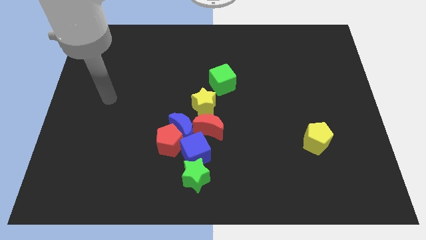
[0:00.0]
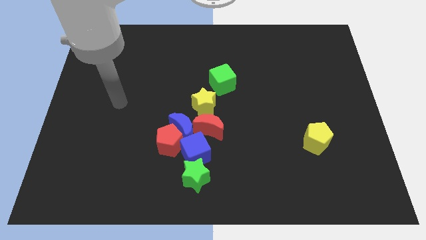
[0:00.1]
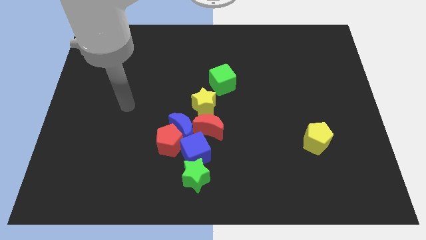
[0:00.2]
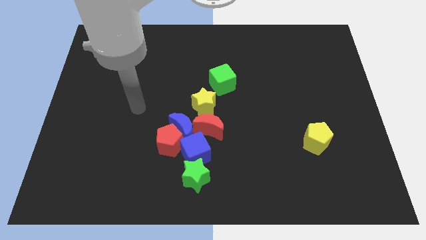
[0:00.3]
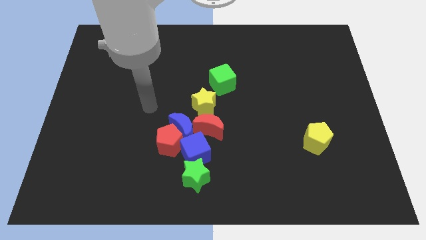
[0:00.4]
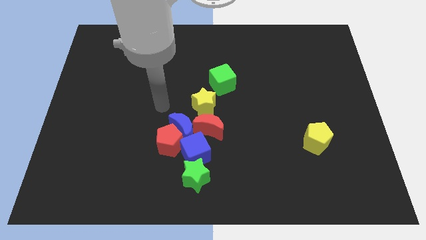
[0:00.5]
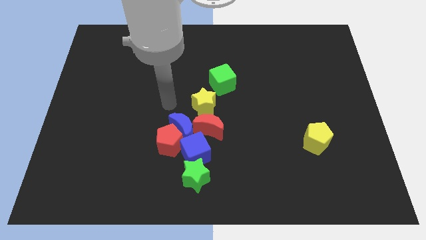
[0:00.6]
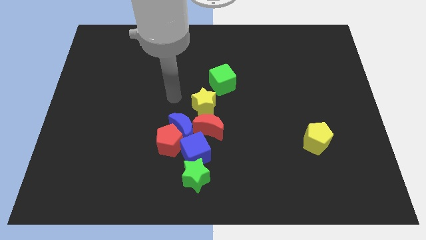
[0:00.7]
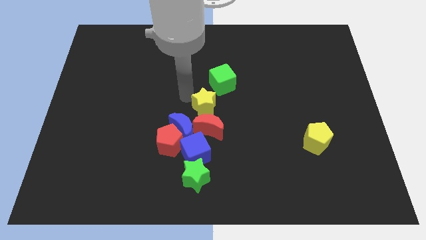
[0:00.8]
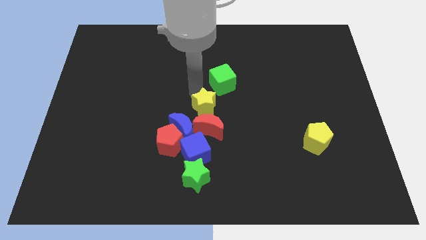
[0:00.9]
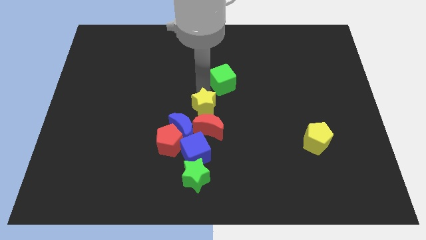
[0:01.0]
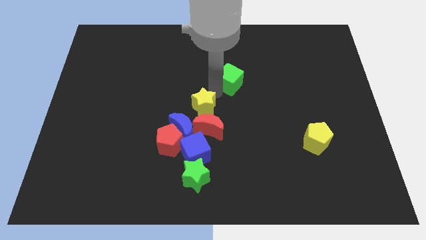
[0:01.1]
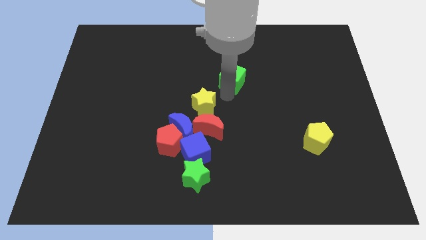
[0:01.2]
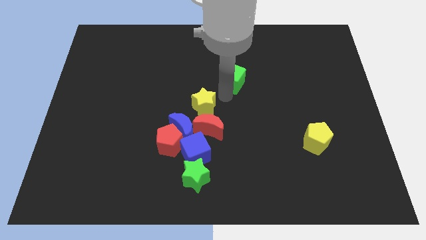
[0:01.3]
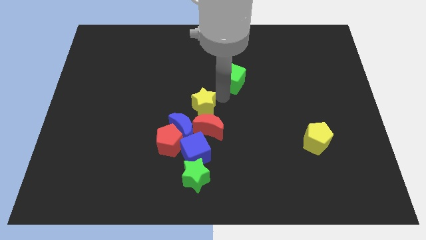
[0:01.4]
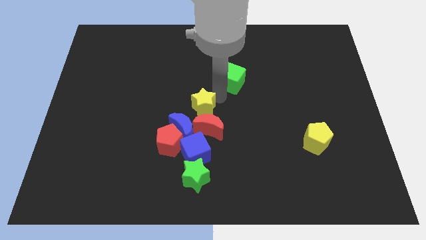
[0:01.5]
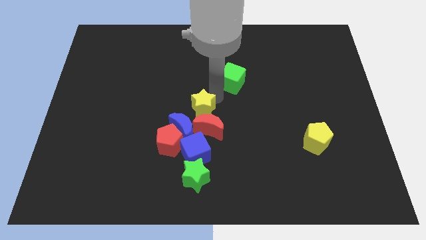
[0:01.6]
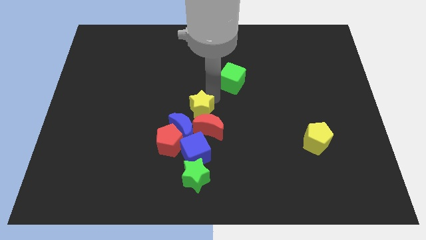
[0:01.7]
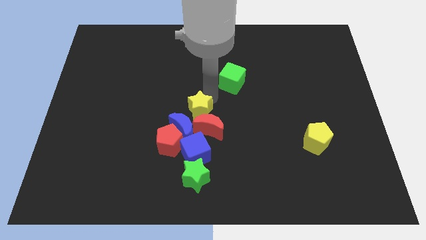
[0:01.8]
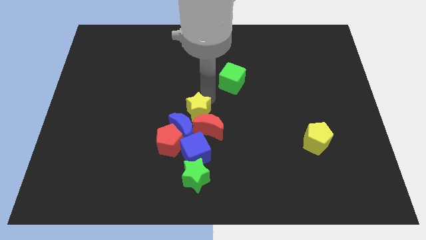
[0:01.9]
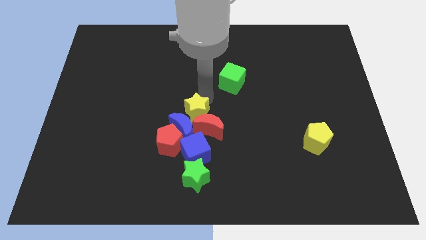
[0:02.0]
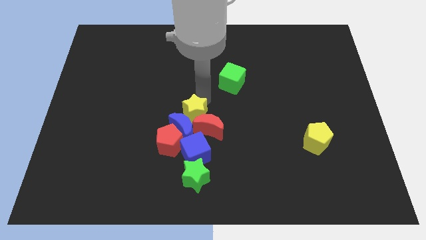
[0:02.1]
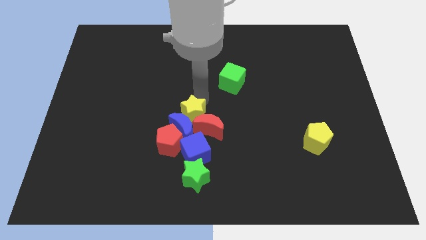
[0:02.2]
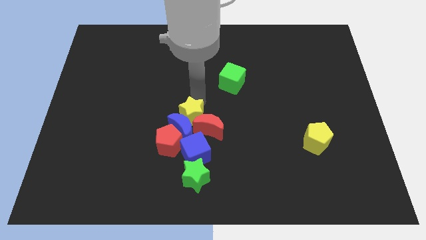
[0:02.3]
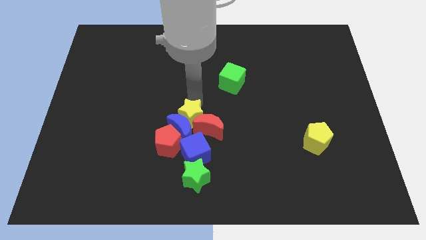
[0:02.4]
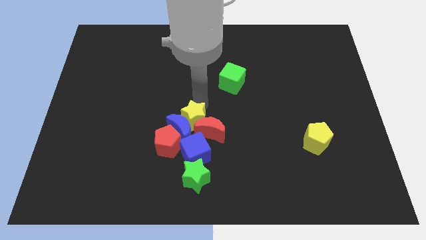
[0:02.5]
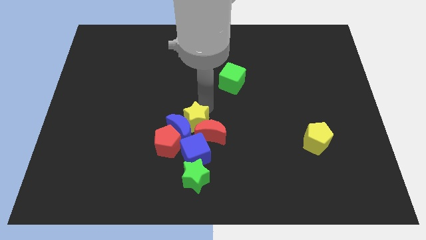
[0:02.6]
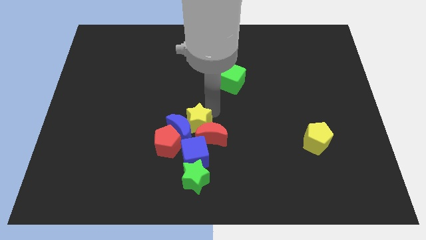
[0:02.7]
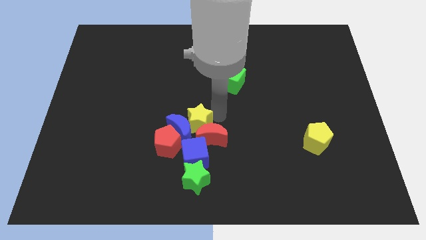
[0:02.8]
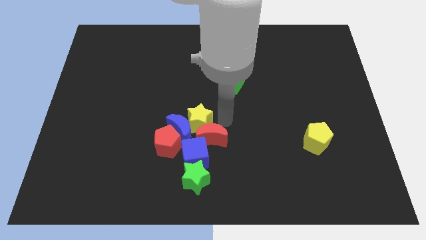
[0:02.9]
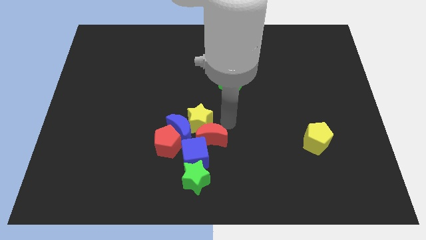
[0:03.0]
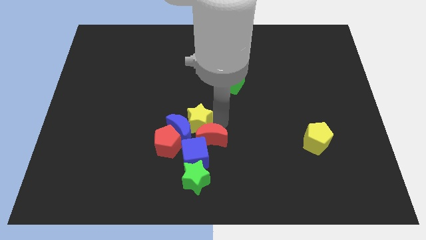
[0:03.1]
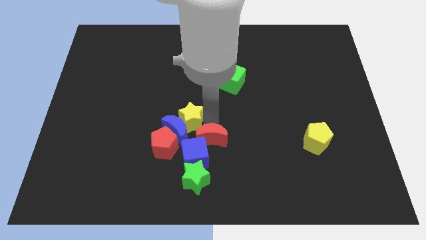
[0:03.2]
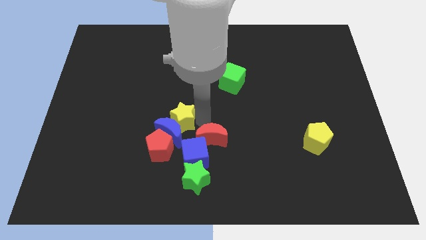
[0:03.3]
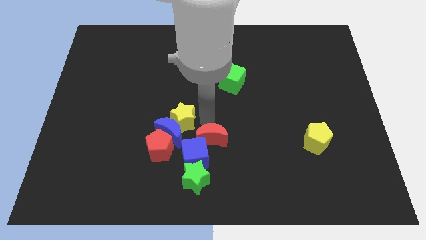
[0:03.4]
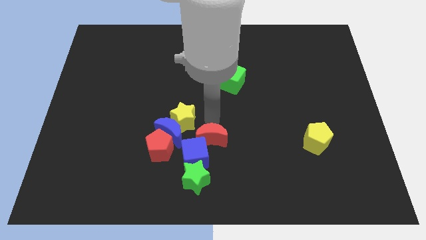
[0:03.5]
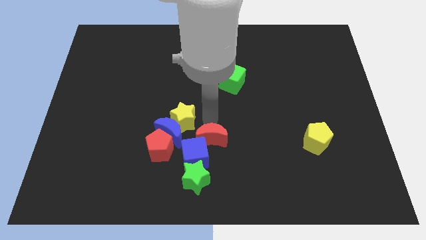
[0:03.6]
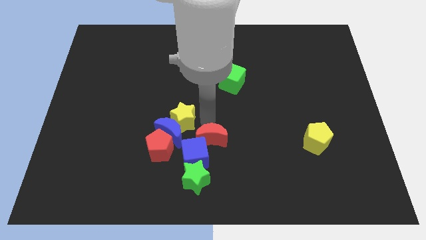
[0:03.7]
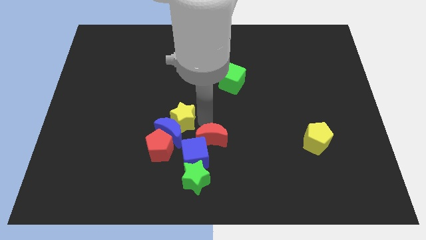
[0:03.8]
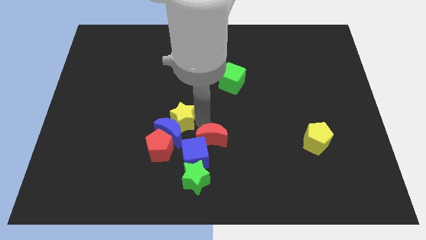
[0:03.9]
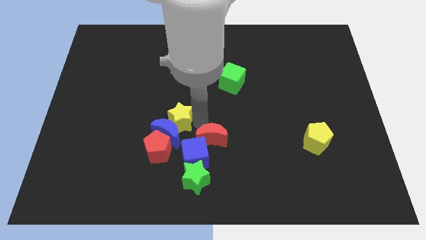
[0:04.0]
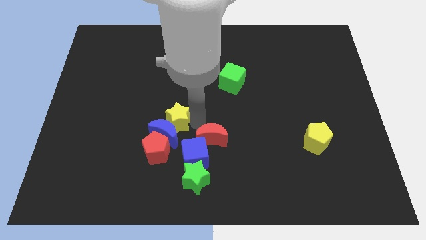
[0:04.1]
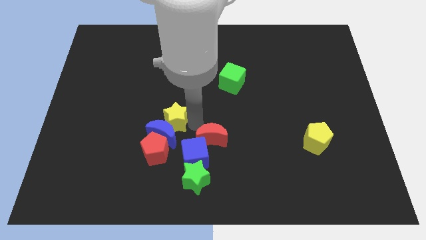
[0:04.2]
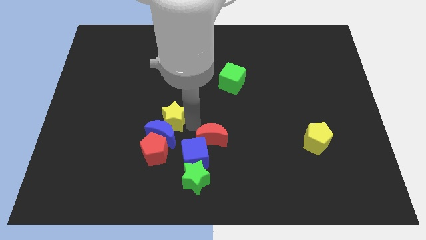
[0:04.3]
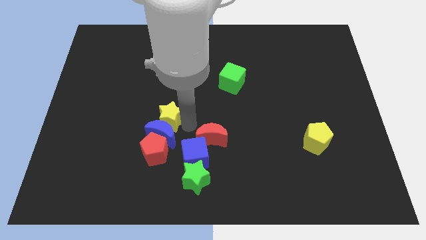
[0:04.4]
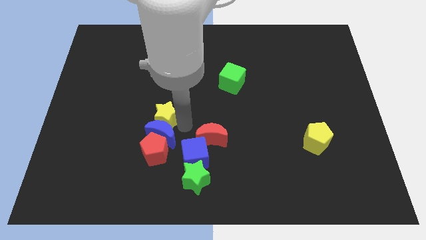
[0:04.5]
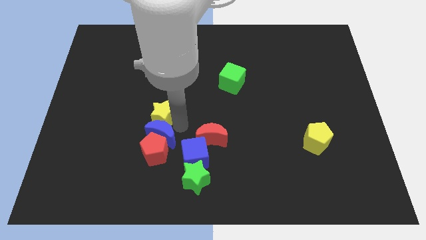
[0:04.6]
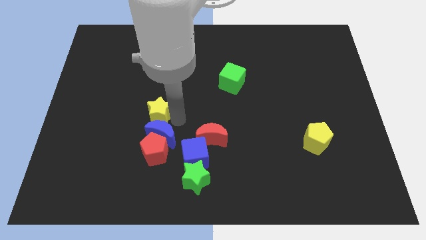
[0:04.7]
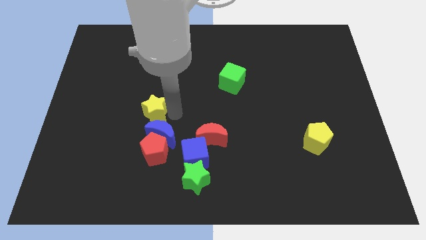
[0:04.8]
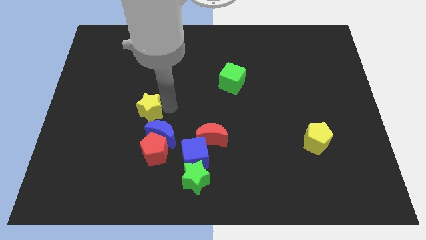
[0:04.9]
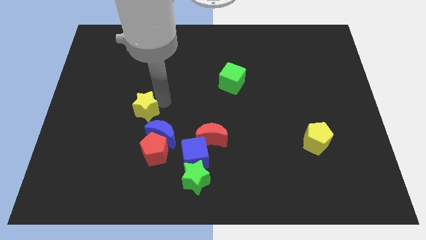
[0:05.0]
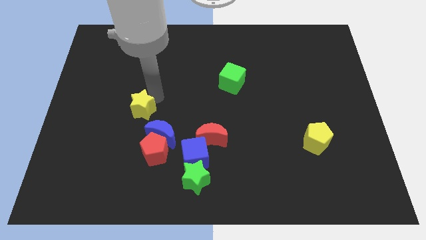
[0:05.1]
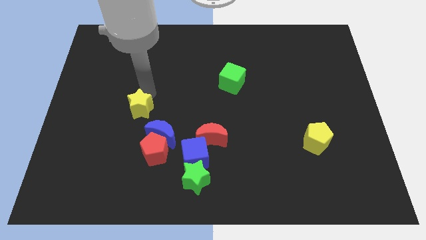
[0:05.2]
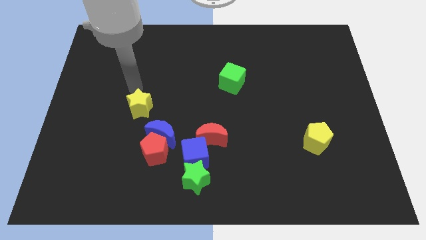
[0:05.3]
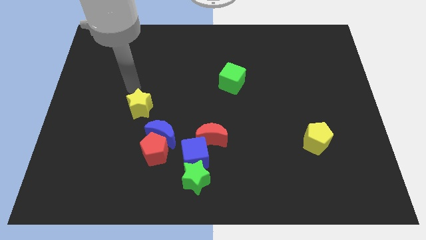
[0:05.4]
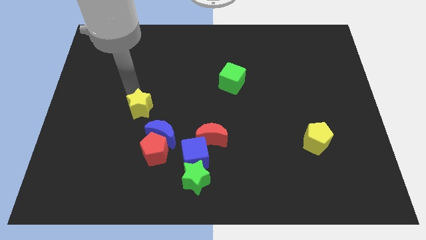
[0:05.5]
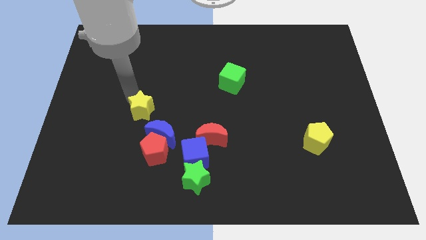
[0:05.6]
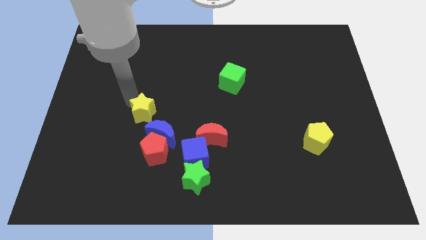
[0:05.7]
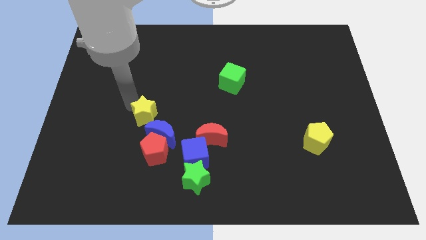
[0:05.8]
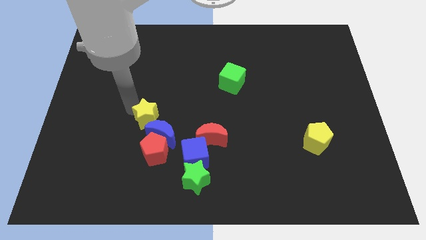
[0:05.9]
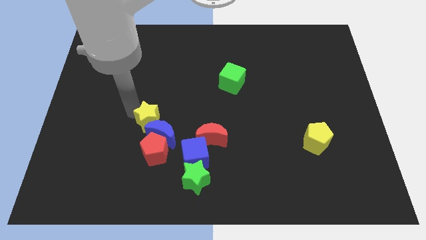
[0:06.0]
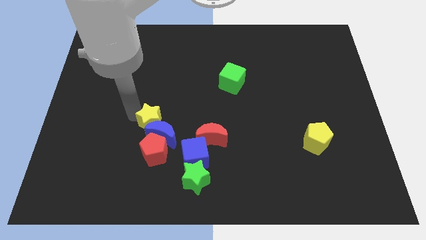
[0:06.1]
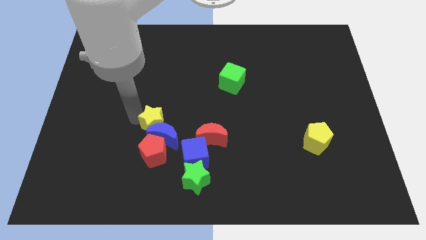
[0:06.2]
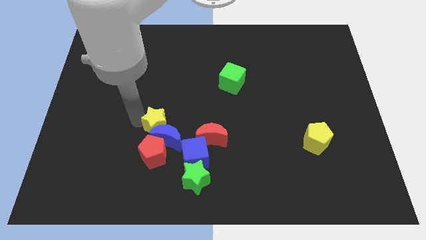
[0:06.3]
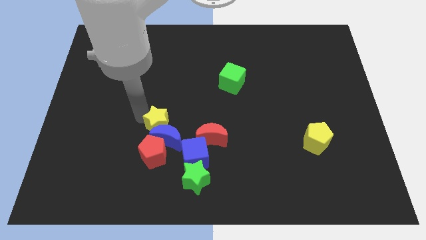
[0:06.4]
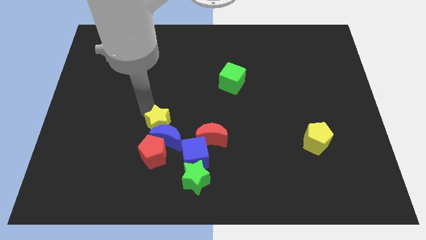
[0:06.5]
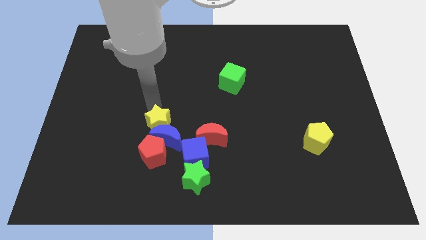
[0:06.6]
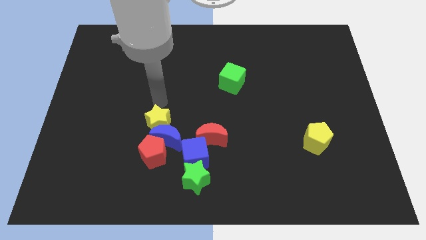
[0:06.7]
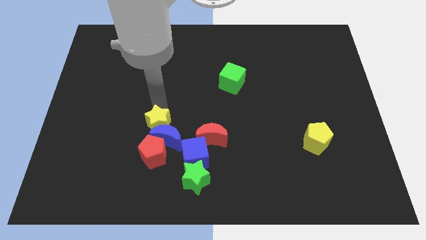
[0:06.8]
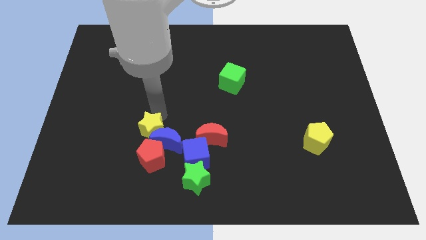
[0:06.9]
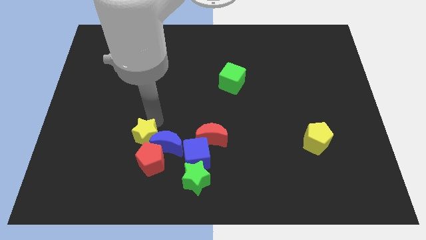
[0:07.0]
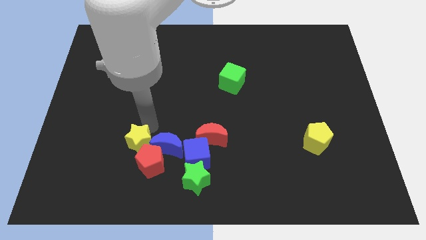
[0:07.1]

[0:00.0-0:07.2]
push the yellow star next to the red pentagon
